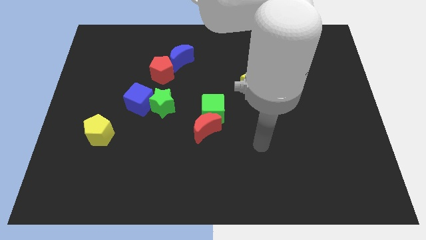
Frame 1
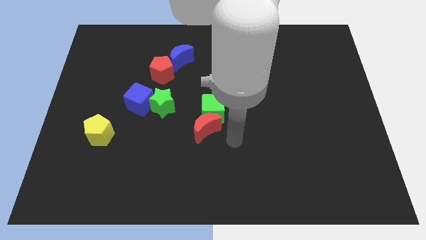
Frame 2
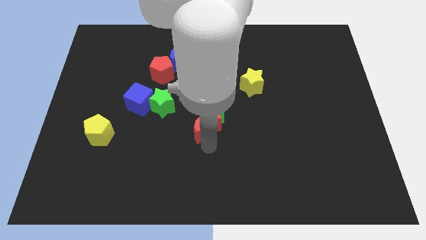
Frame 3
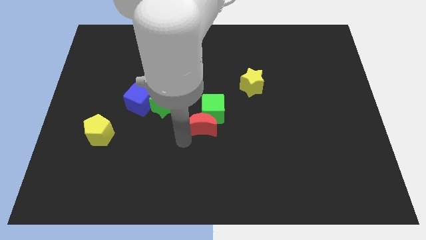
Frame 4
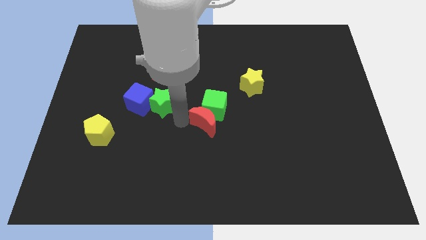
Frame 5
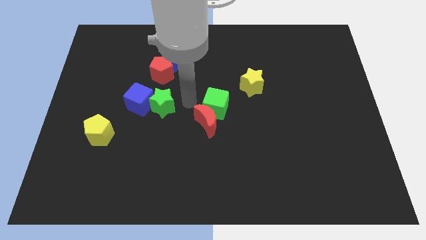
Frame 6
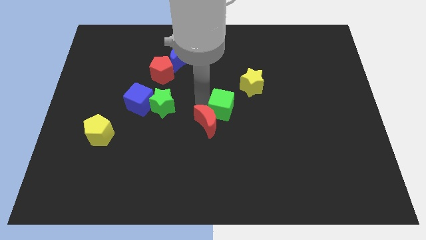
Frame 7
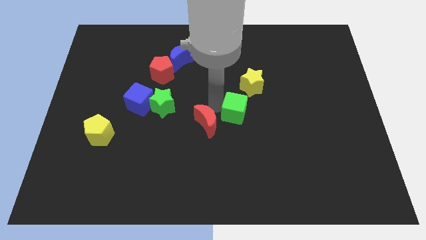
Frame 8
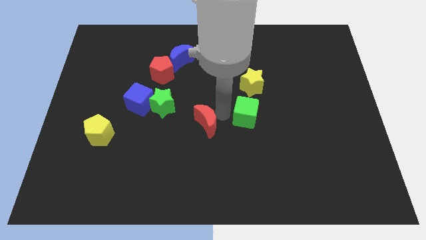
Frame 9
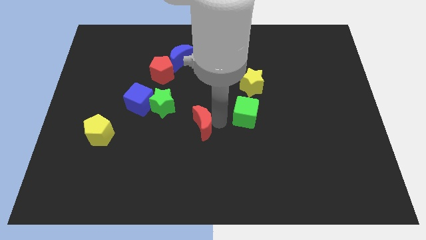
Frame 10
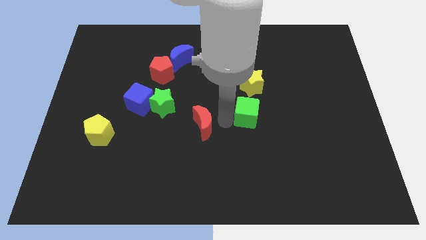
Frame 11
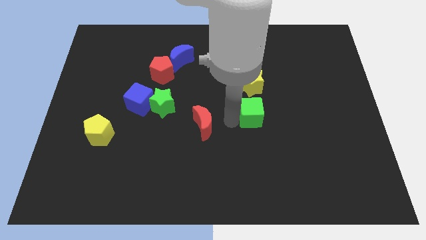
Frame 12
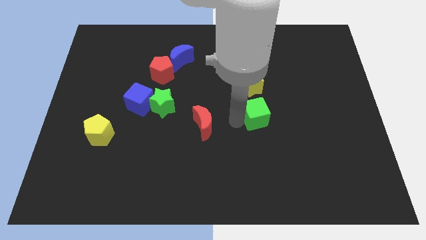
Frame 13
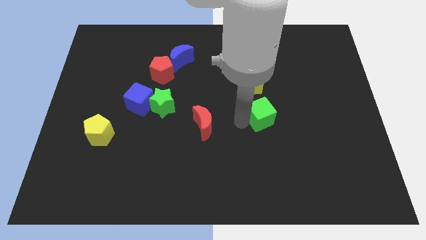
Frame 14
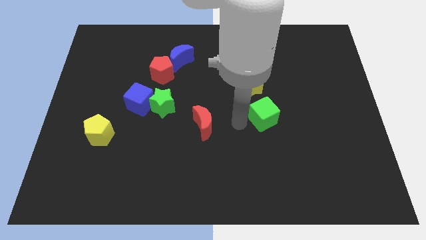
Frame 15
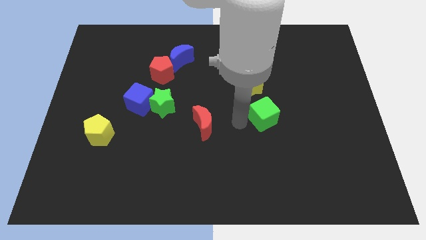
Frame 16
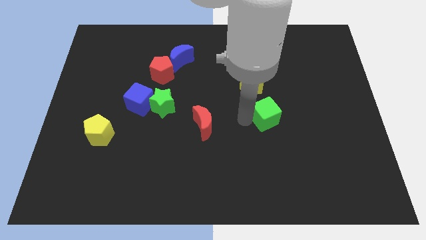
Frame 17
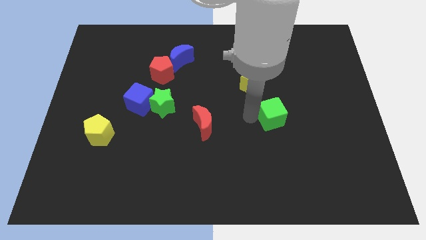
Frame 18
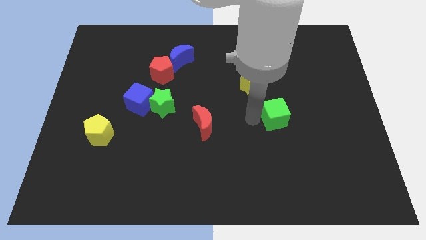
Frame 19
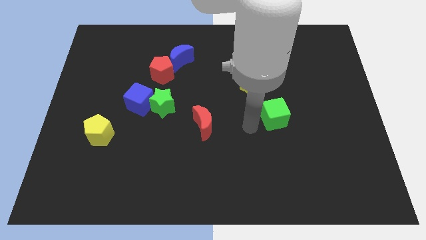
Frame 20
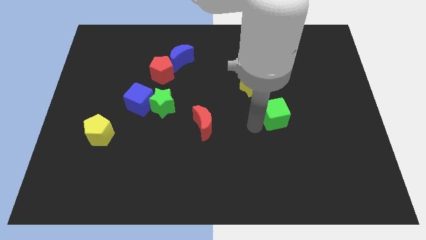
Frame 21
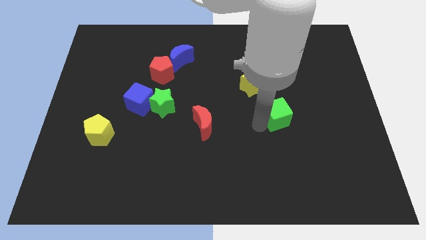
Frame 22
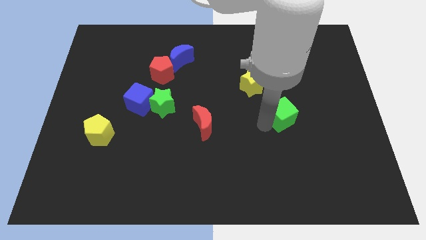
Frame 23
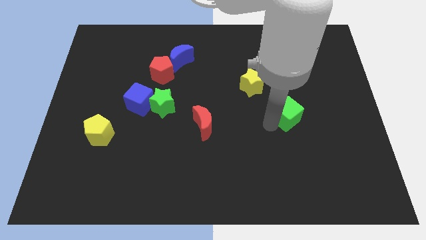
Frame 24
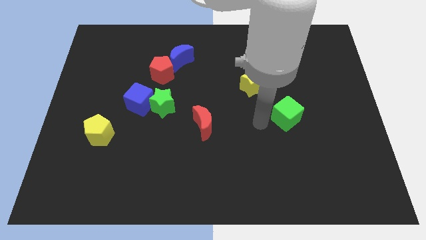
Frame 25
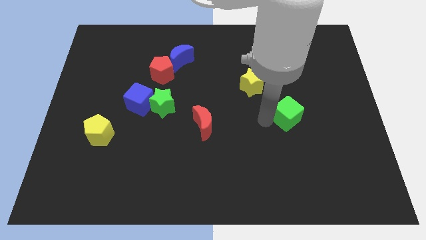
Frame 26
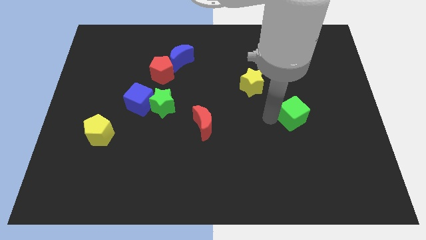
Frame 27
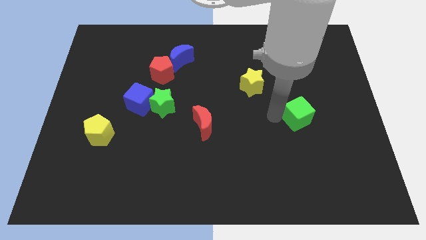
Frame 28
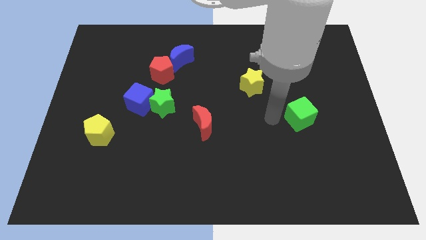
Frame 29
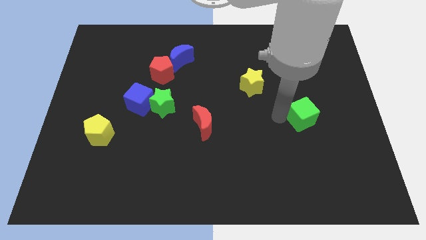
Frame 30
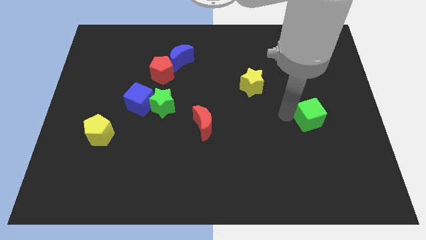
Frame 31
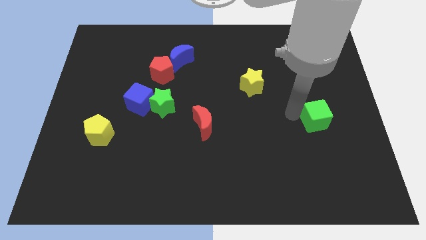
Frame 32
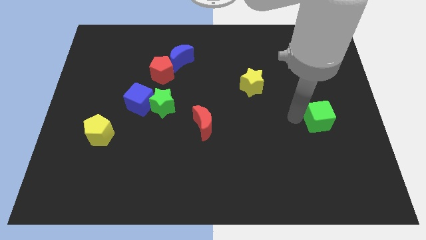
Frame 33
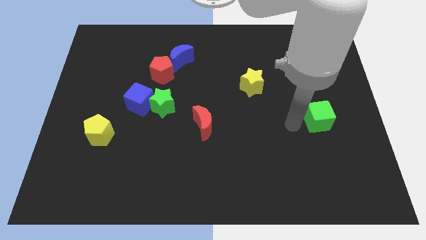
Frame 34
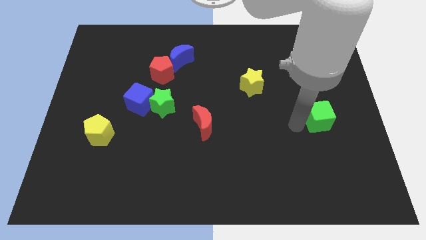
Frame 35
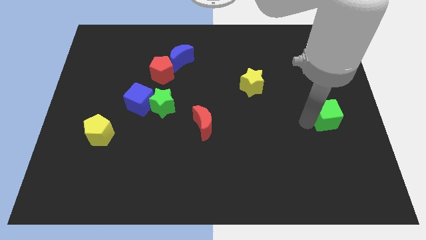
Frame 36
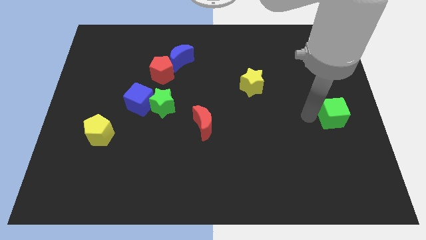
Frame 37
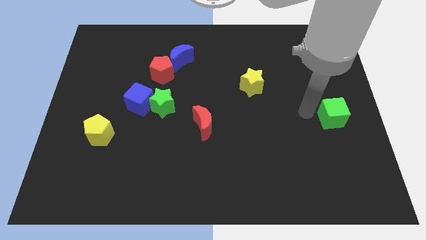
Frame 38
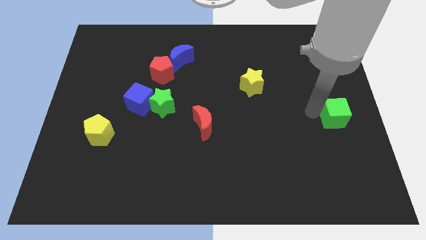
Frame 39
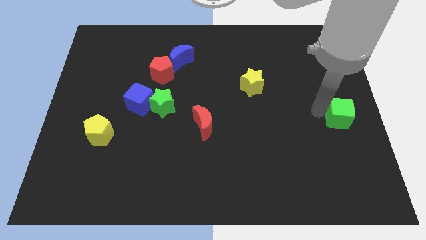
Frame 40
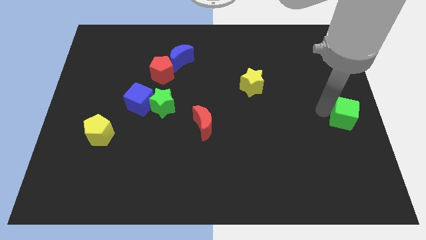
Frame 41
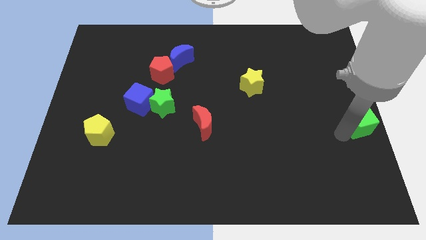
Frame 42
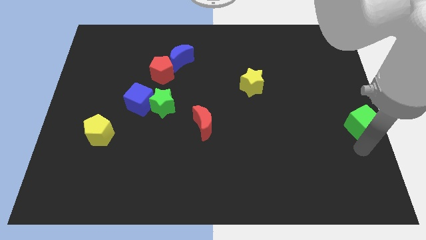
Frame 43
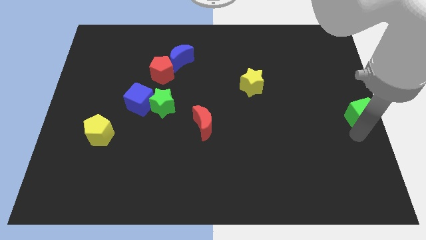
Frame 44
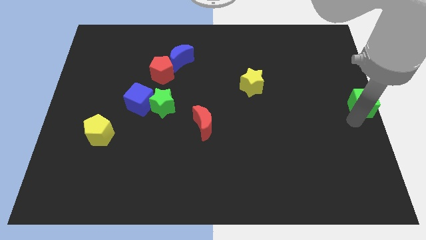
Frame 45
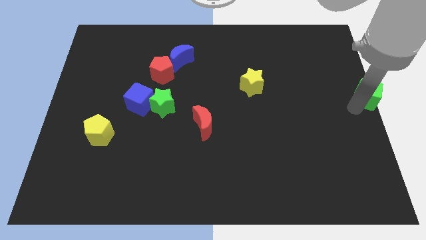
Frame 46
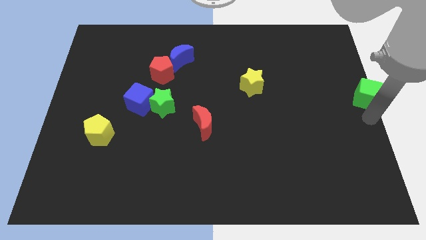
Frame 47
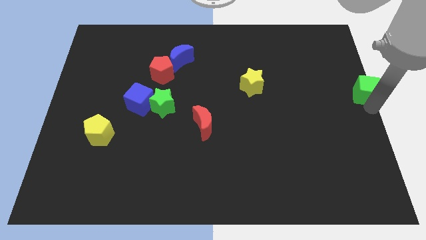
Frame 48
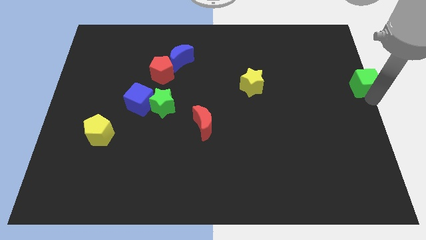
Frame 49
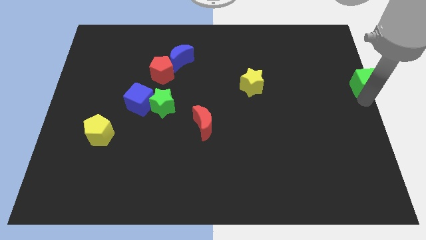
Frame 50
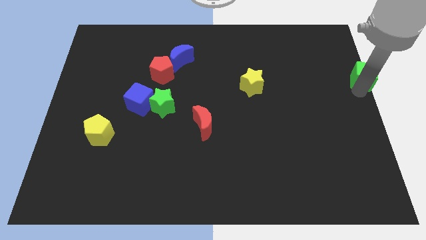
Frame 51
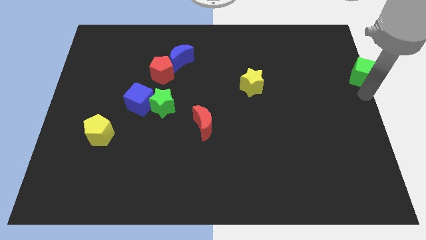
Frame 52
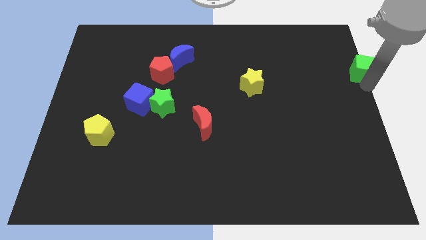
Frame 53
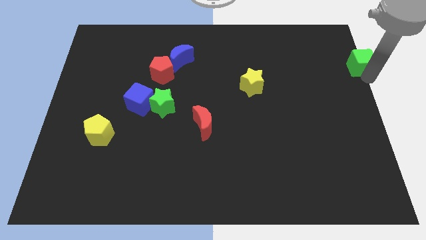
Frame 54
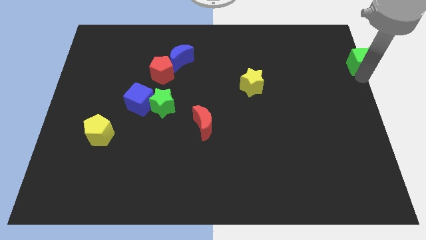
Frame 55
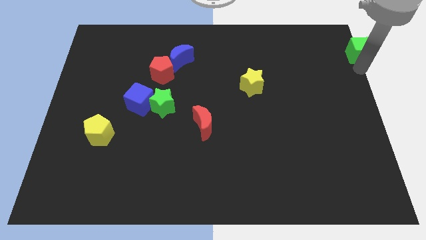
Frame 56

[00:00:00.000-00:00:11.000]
push the green cube to the top right of the board

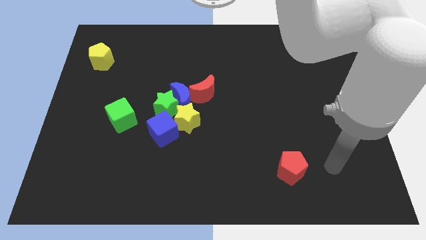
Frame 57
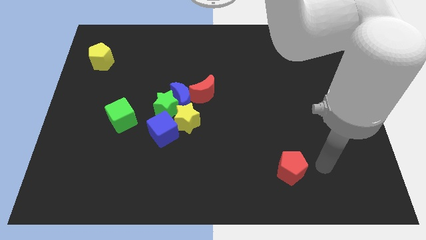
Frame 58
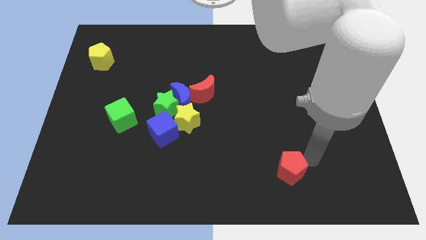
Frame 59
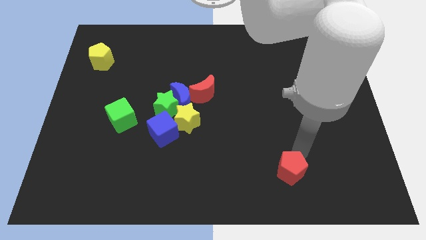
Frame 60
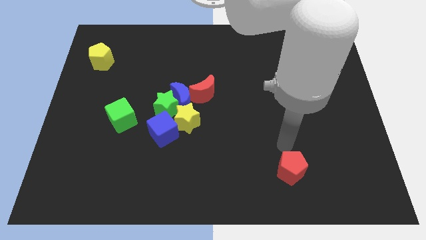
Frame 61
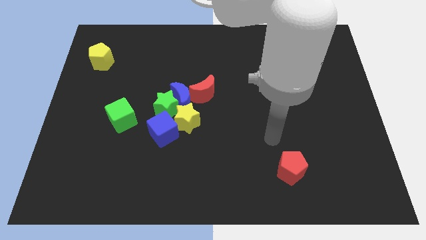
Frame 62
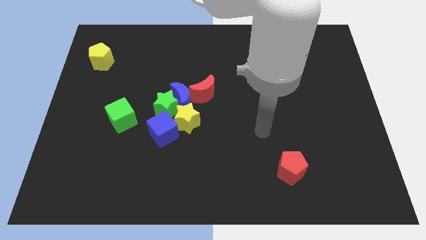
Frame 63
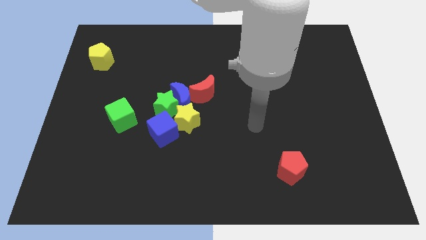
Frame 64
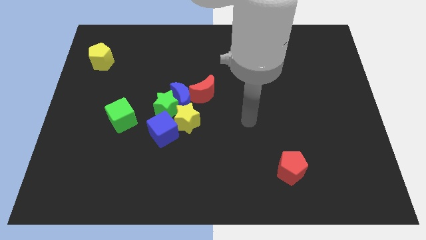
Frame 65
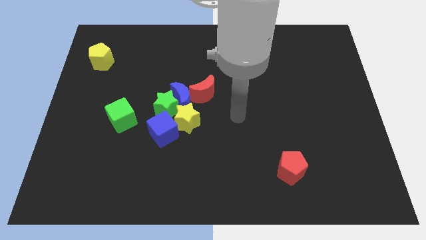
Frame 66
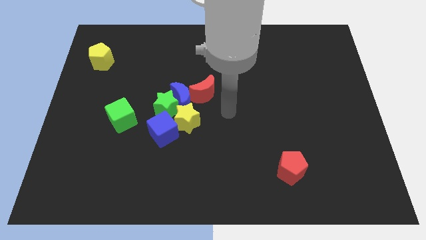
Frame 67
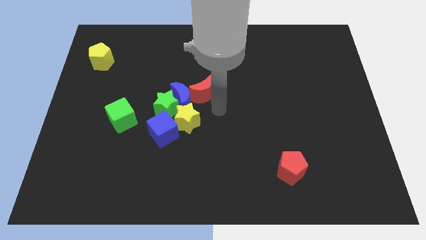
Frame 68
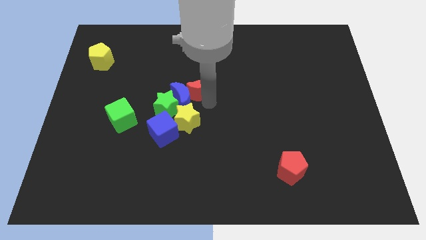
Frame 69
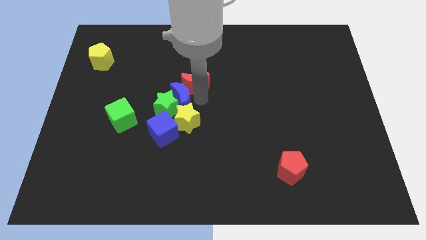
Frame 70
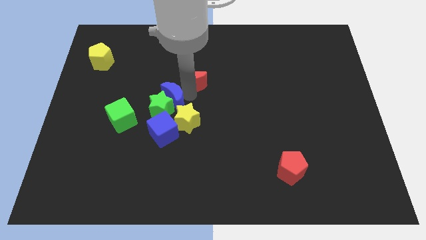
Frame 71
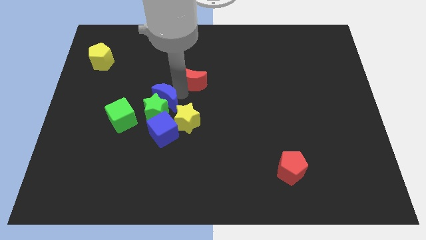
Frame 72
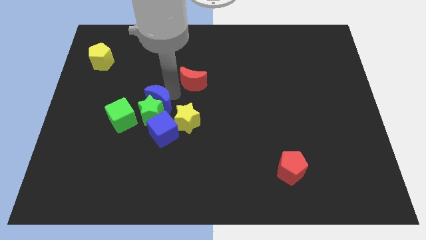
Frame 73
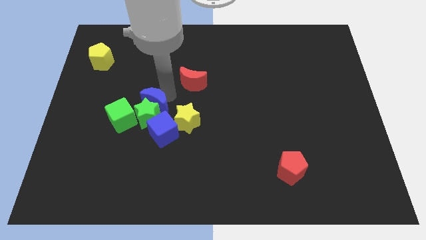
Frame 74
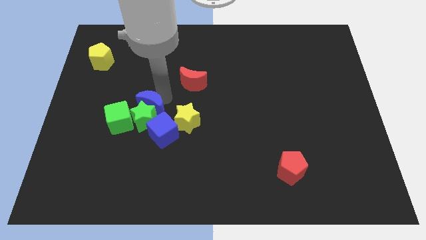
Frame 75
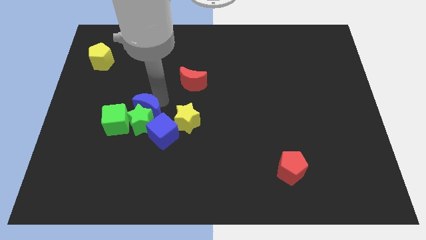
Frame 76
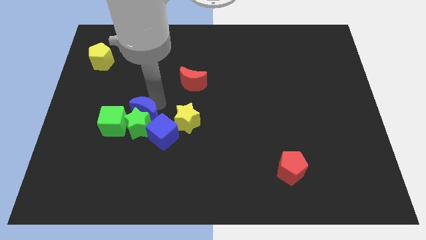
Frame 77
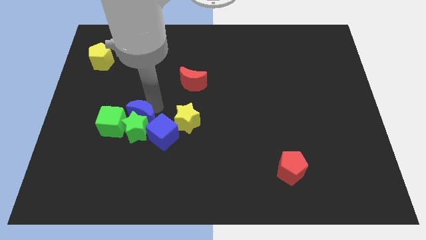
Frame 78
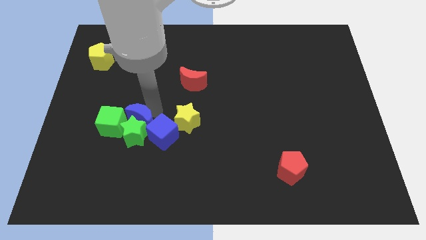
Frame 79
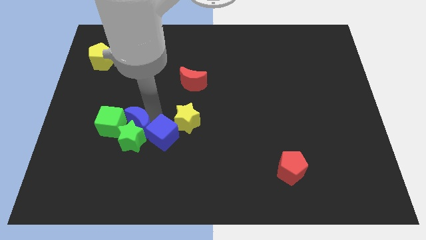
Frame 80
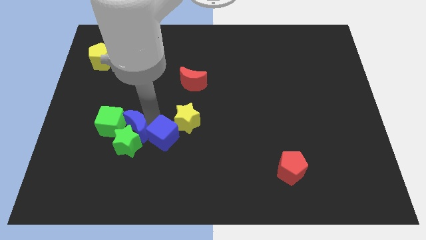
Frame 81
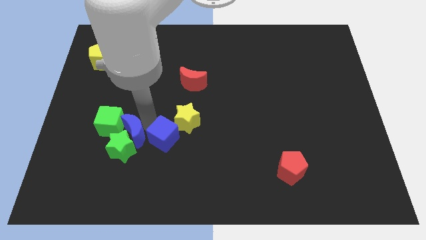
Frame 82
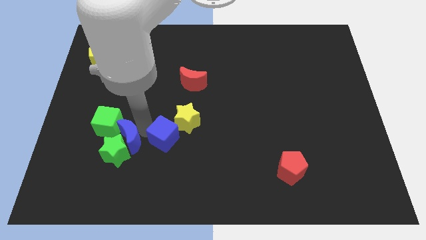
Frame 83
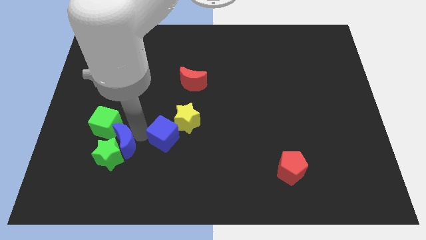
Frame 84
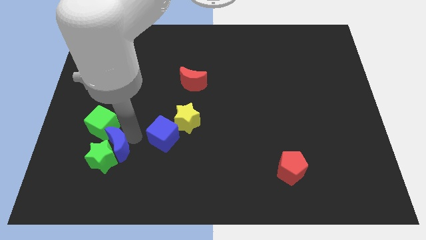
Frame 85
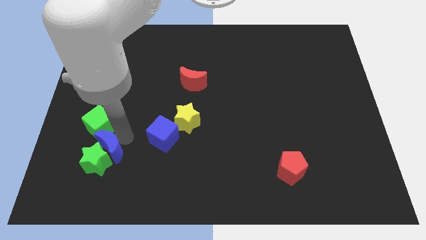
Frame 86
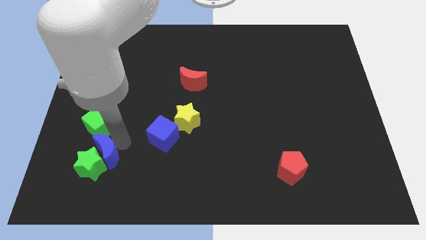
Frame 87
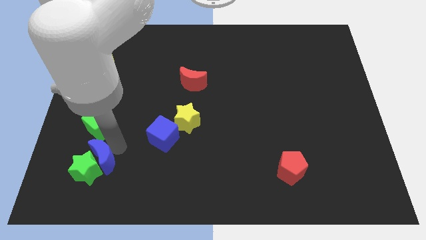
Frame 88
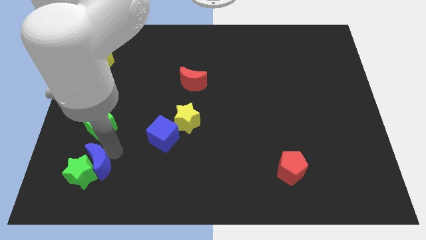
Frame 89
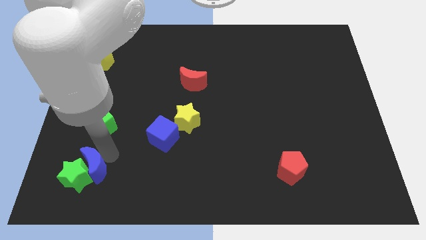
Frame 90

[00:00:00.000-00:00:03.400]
move the green star to the bottom left
